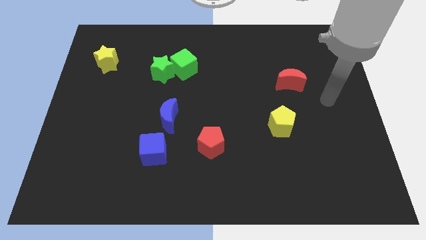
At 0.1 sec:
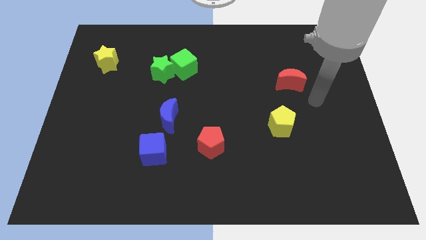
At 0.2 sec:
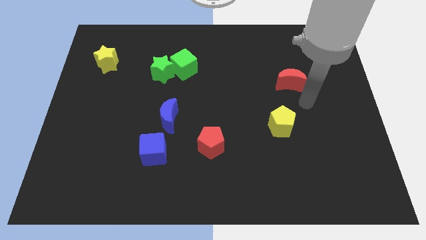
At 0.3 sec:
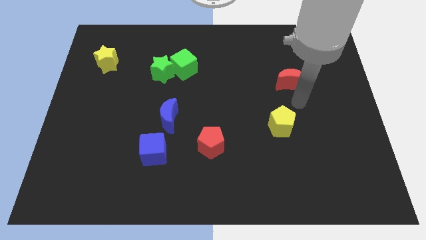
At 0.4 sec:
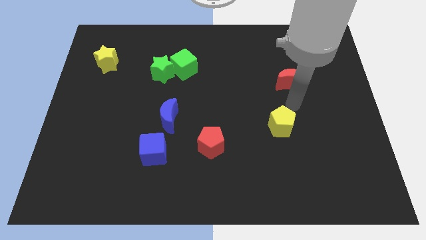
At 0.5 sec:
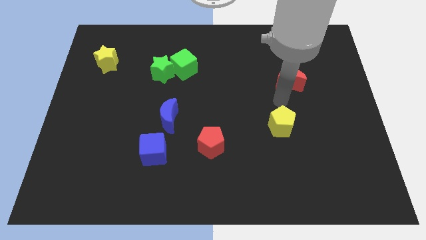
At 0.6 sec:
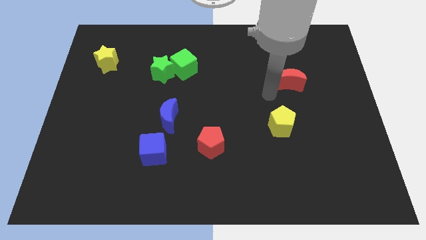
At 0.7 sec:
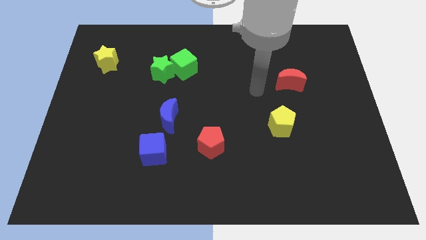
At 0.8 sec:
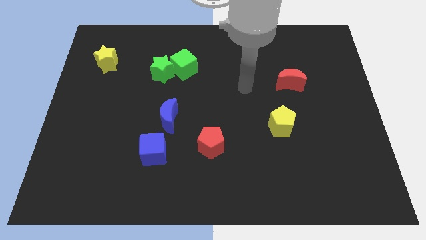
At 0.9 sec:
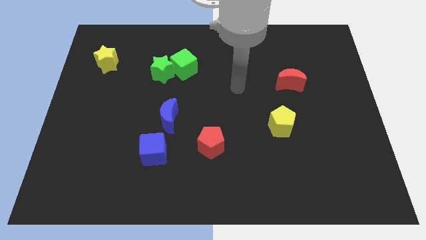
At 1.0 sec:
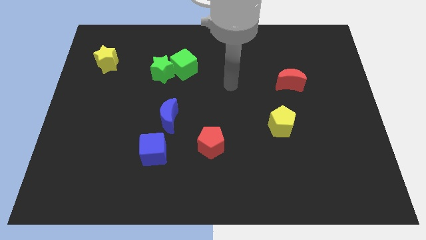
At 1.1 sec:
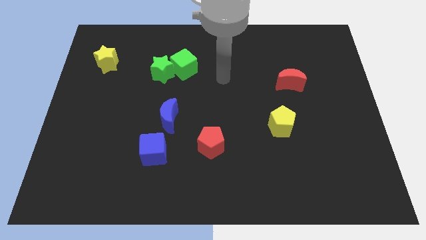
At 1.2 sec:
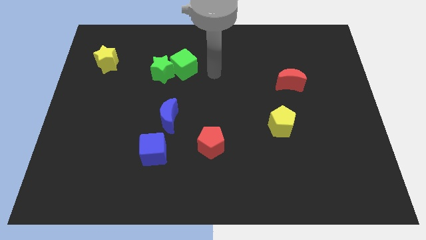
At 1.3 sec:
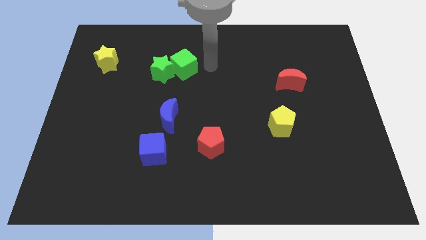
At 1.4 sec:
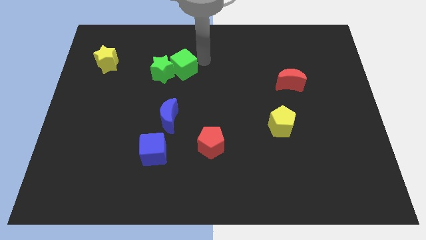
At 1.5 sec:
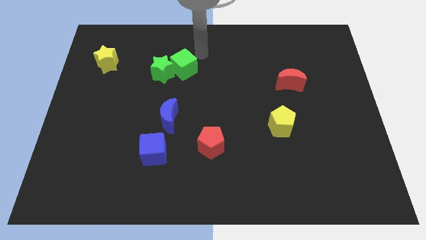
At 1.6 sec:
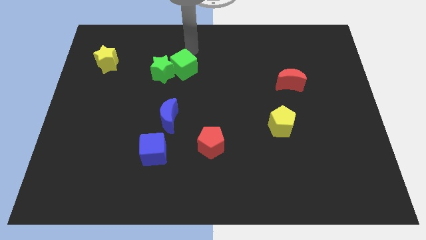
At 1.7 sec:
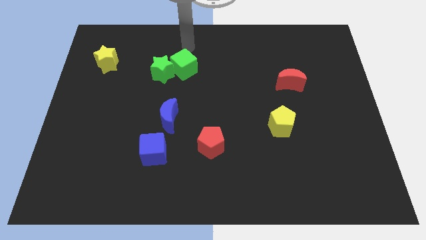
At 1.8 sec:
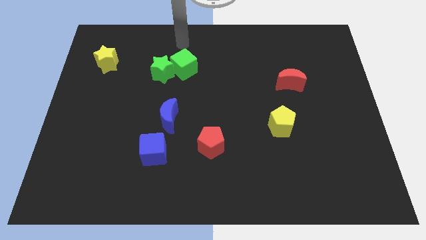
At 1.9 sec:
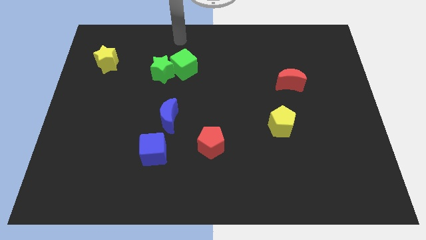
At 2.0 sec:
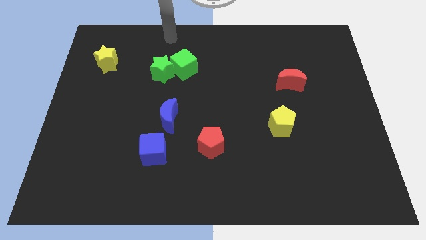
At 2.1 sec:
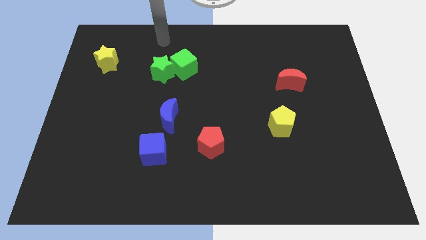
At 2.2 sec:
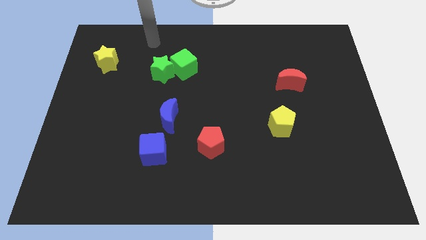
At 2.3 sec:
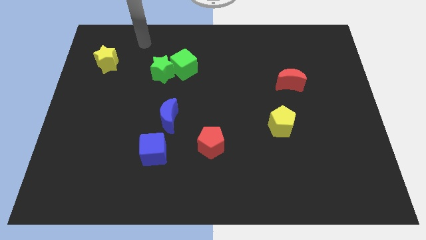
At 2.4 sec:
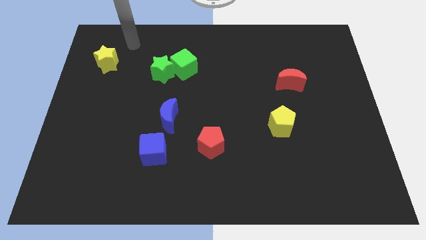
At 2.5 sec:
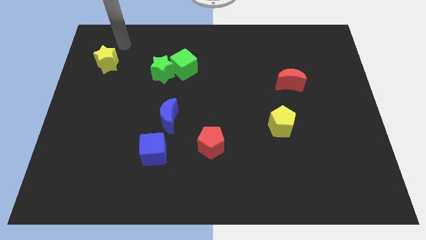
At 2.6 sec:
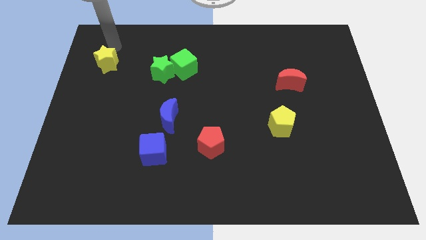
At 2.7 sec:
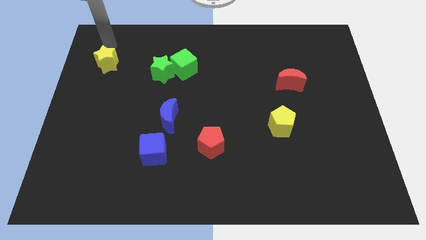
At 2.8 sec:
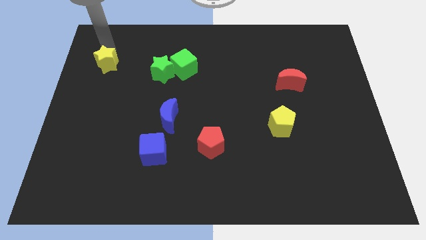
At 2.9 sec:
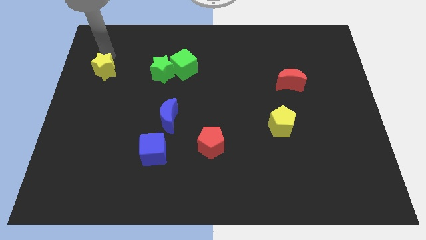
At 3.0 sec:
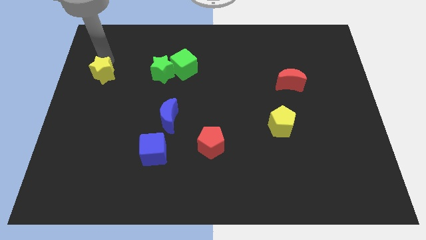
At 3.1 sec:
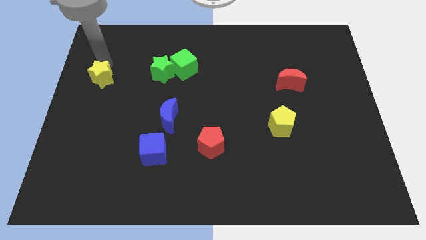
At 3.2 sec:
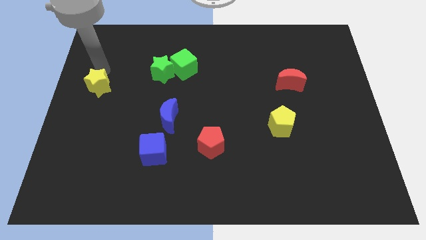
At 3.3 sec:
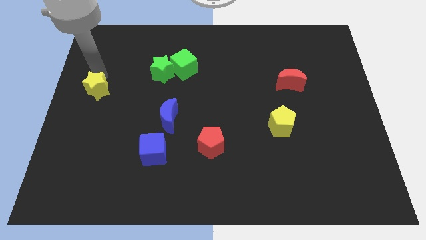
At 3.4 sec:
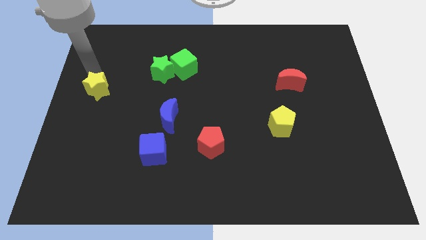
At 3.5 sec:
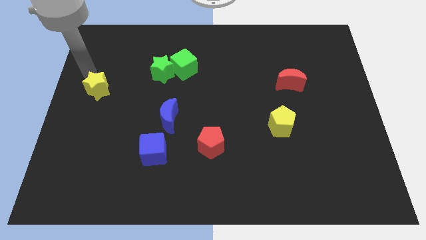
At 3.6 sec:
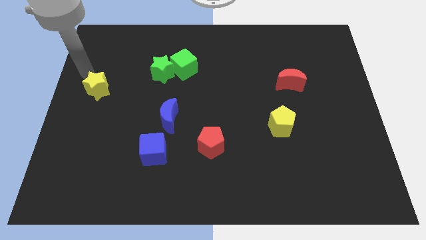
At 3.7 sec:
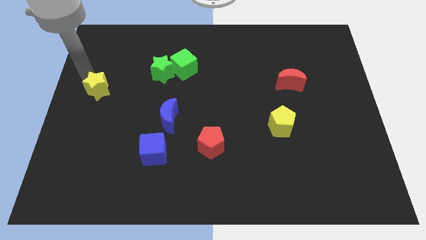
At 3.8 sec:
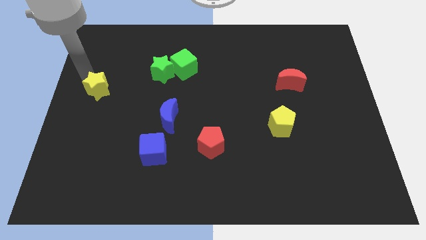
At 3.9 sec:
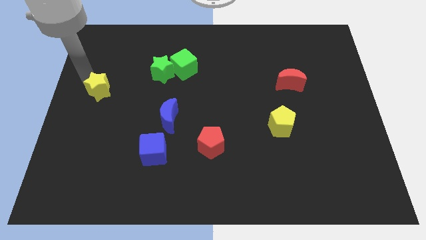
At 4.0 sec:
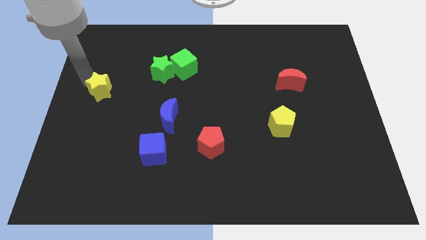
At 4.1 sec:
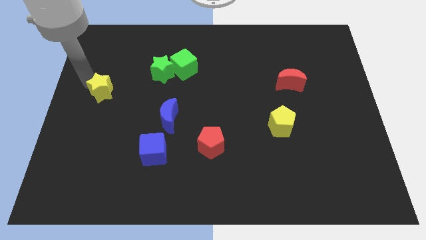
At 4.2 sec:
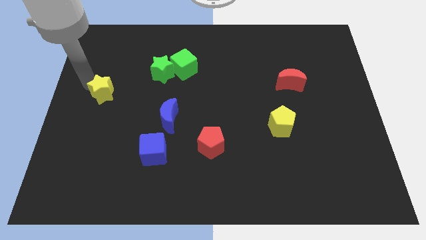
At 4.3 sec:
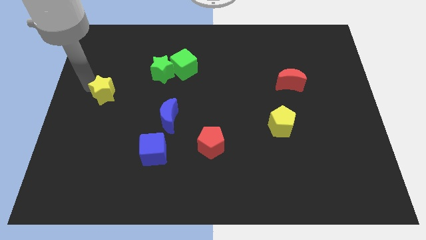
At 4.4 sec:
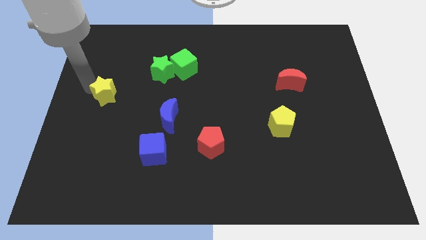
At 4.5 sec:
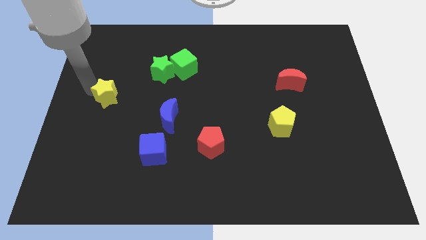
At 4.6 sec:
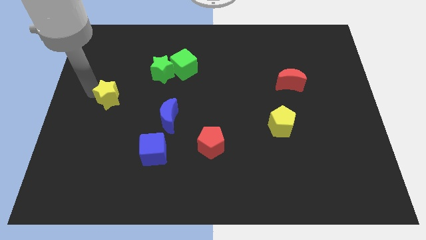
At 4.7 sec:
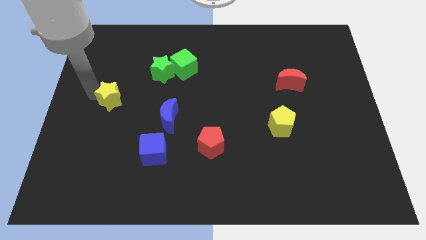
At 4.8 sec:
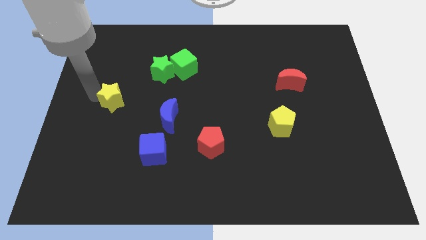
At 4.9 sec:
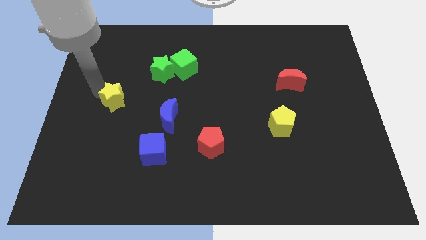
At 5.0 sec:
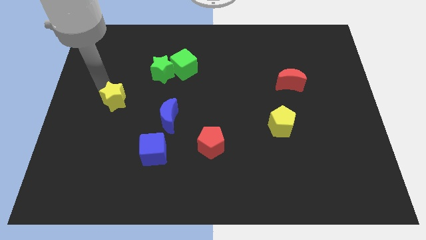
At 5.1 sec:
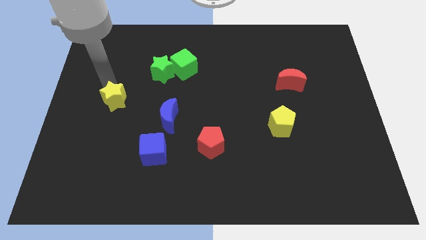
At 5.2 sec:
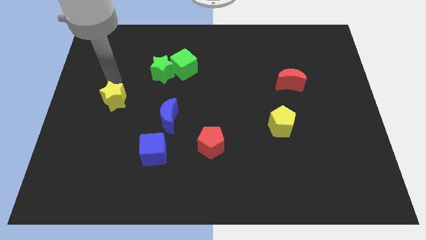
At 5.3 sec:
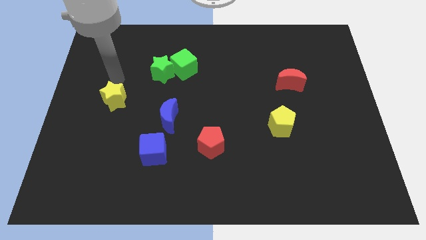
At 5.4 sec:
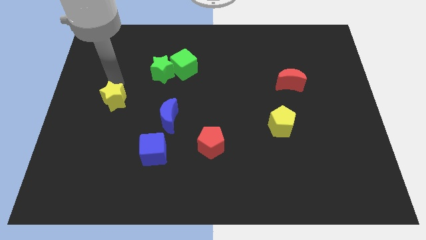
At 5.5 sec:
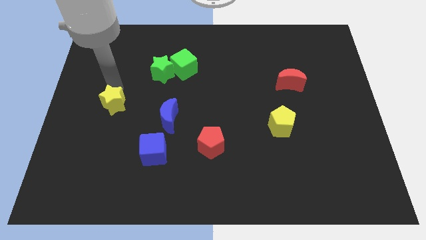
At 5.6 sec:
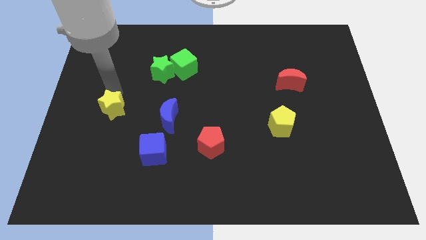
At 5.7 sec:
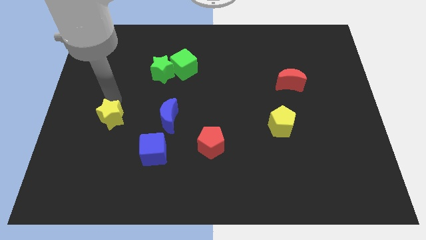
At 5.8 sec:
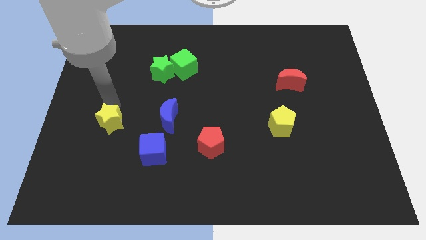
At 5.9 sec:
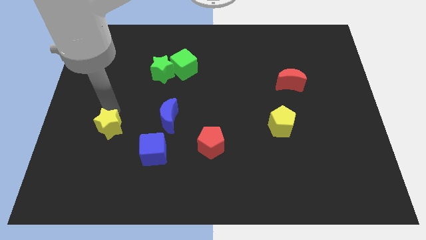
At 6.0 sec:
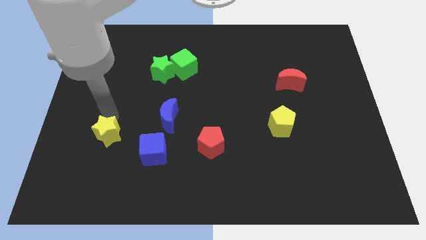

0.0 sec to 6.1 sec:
slide the yellow star to the left of the blue cube

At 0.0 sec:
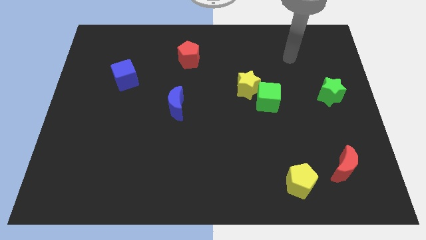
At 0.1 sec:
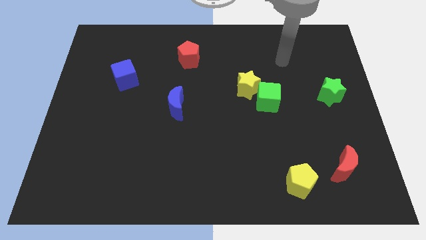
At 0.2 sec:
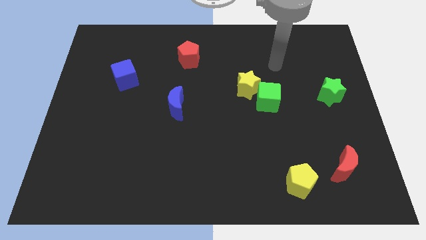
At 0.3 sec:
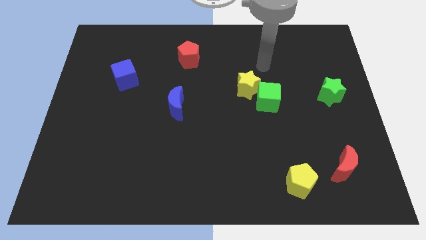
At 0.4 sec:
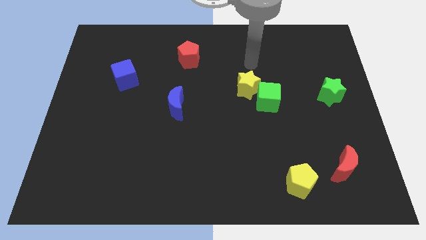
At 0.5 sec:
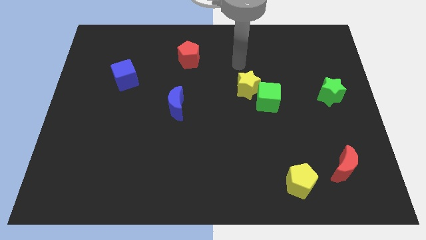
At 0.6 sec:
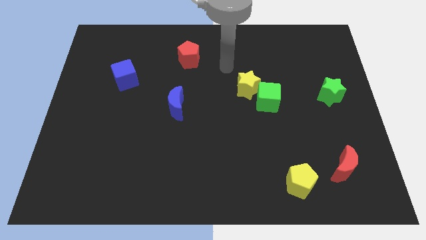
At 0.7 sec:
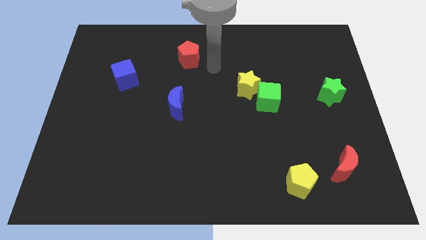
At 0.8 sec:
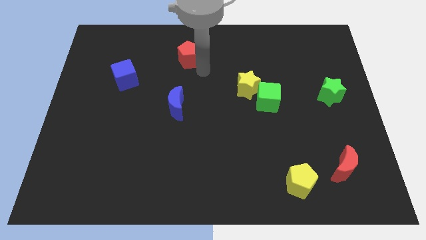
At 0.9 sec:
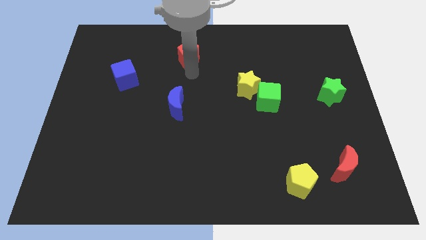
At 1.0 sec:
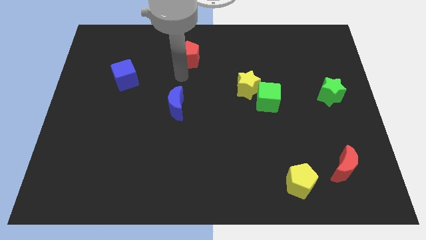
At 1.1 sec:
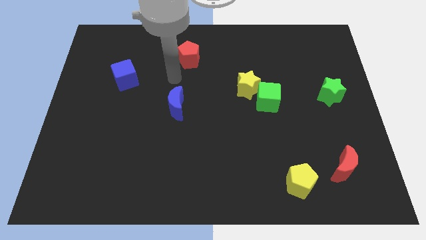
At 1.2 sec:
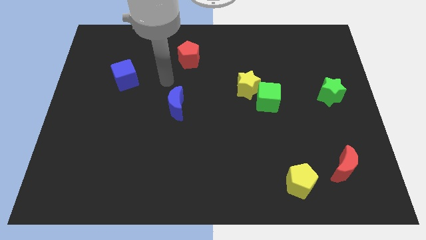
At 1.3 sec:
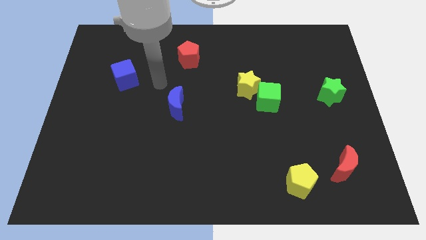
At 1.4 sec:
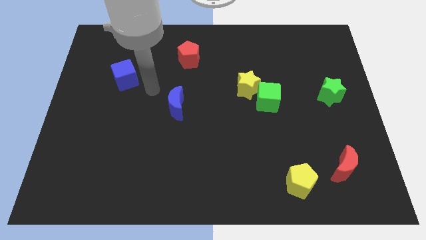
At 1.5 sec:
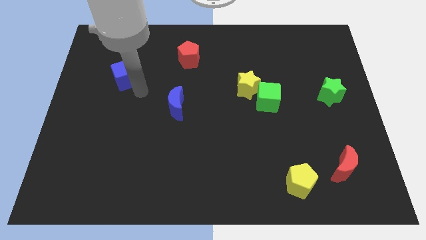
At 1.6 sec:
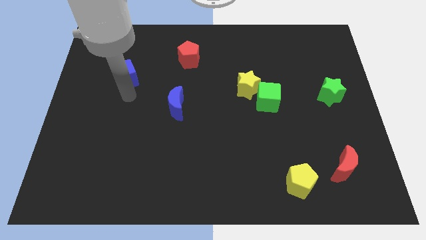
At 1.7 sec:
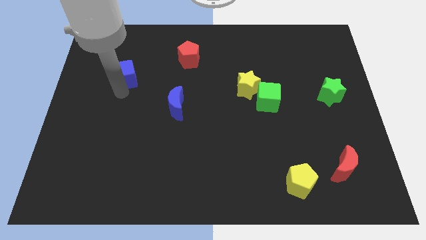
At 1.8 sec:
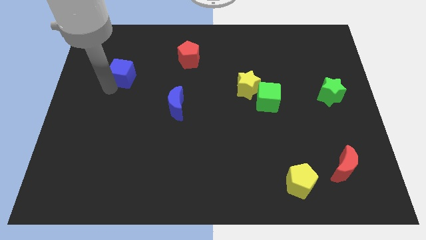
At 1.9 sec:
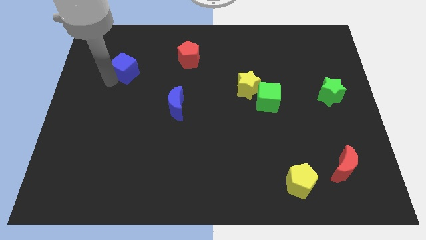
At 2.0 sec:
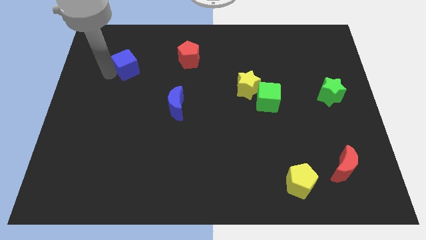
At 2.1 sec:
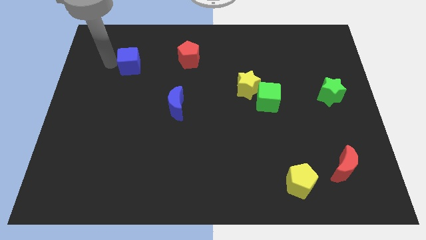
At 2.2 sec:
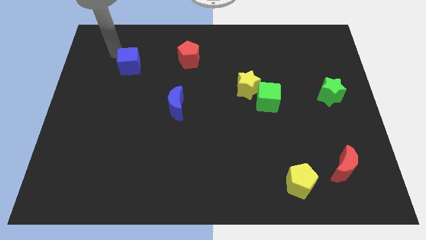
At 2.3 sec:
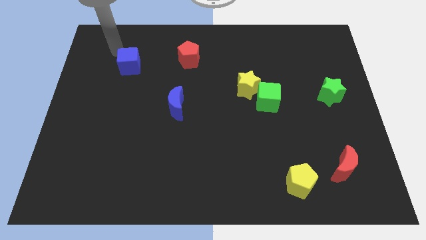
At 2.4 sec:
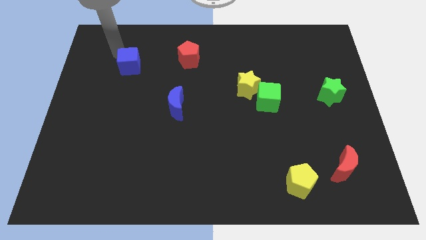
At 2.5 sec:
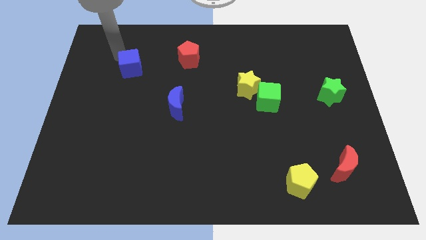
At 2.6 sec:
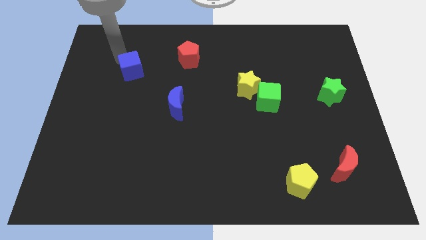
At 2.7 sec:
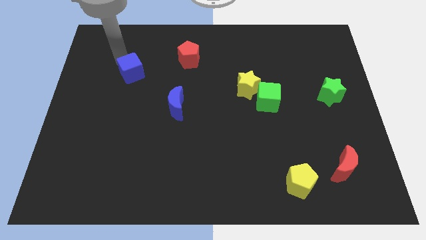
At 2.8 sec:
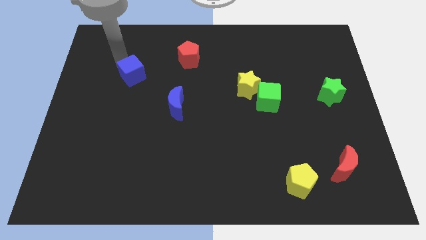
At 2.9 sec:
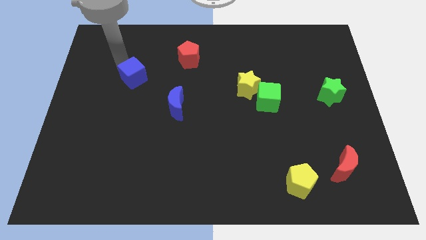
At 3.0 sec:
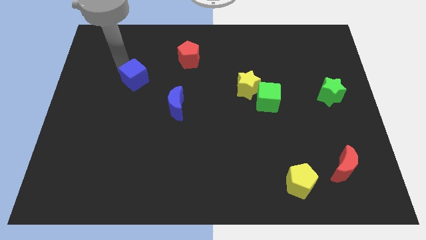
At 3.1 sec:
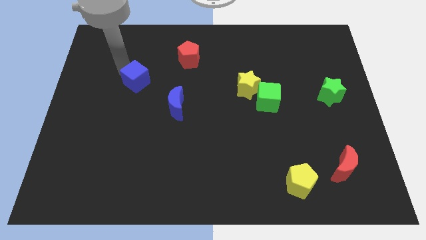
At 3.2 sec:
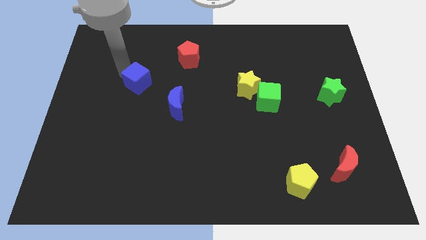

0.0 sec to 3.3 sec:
put the blue cube to the top left side of the blue moon
